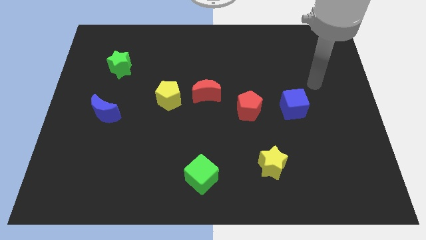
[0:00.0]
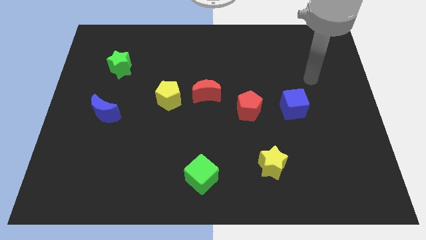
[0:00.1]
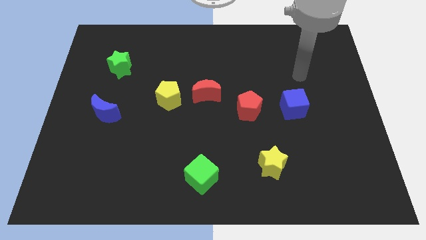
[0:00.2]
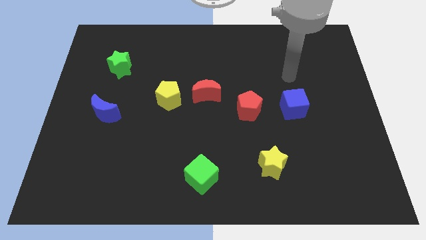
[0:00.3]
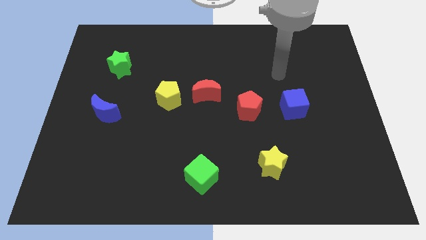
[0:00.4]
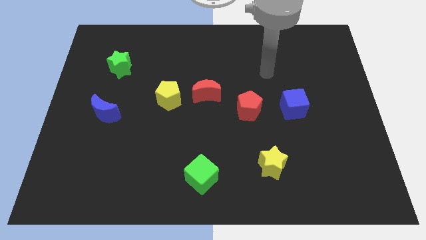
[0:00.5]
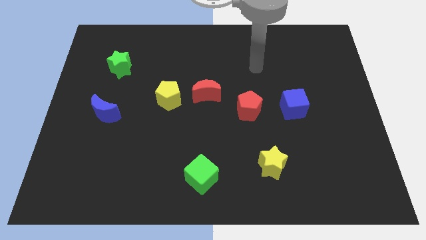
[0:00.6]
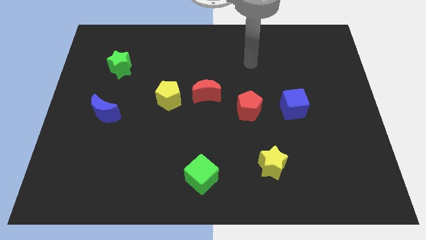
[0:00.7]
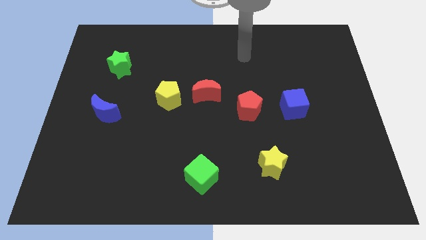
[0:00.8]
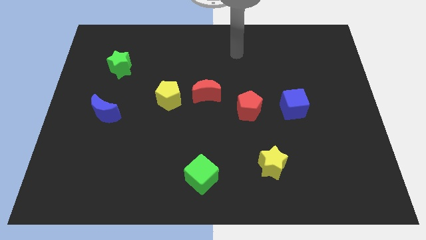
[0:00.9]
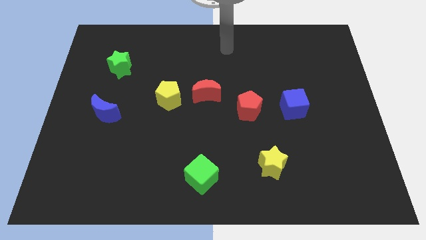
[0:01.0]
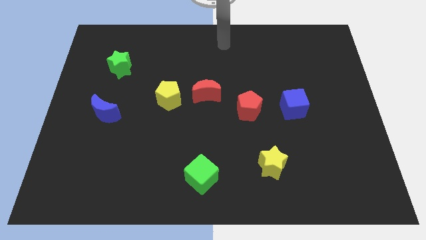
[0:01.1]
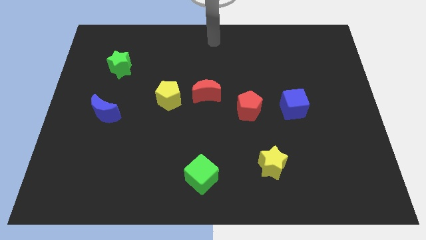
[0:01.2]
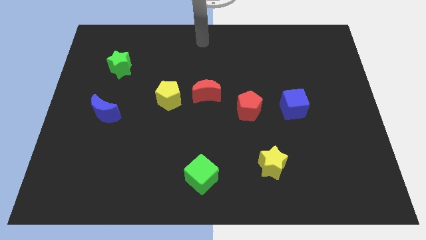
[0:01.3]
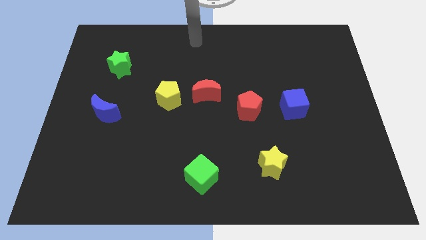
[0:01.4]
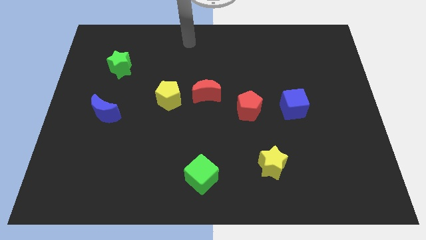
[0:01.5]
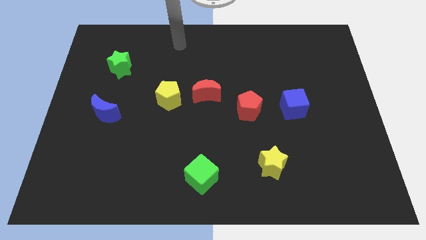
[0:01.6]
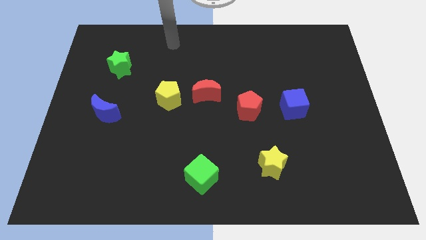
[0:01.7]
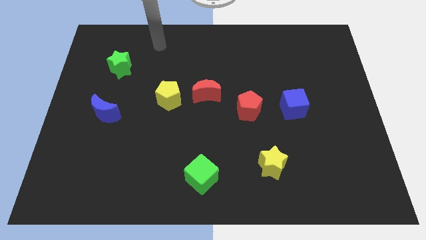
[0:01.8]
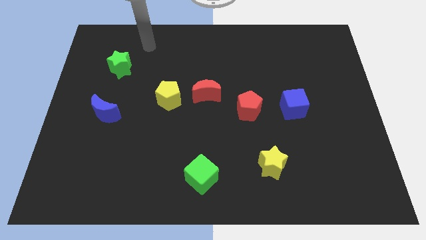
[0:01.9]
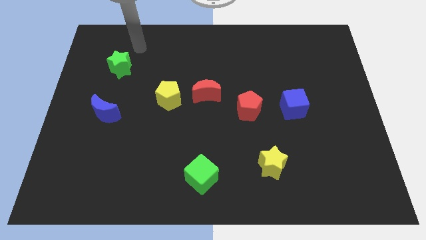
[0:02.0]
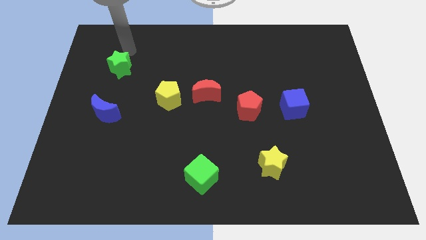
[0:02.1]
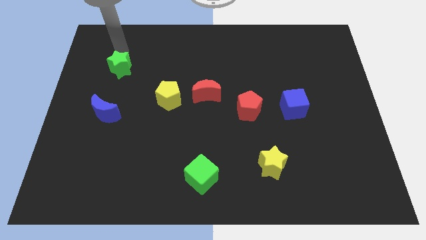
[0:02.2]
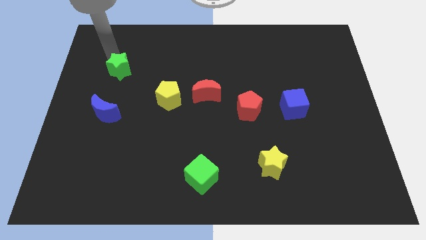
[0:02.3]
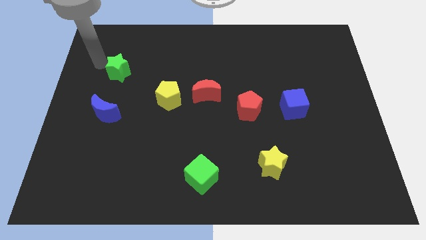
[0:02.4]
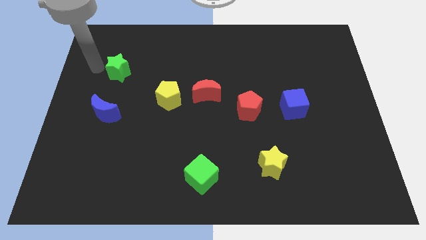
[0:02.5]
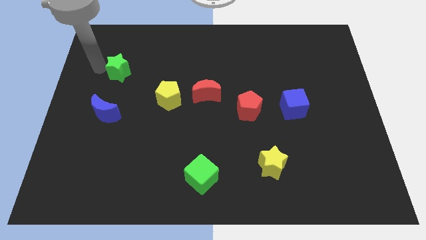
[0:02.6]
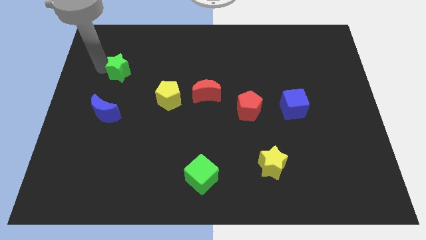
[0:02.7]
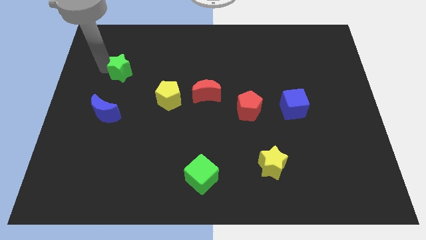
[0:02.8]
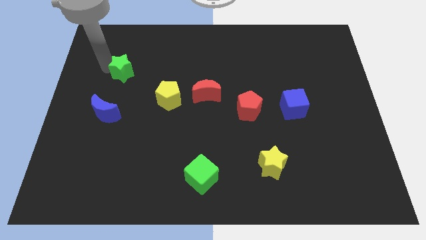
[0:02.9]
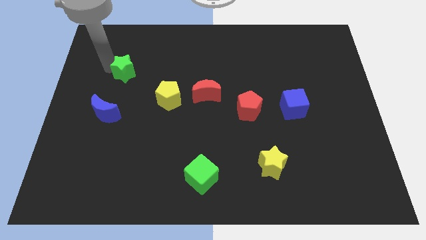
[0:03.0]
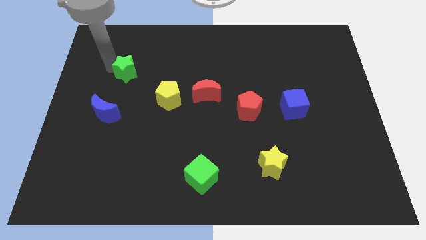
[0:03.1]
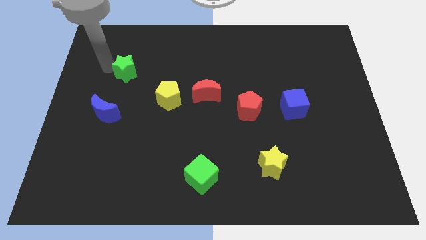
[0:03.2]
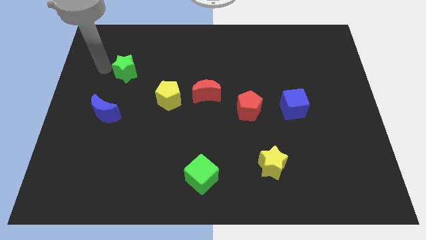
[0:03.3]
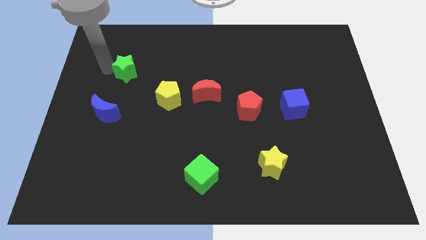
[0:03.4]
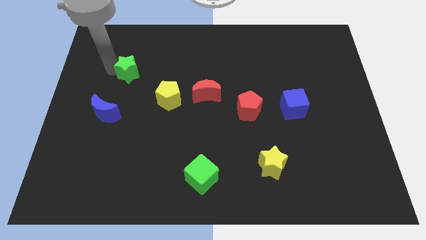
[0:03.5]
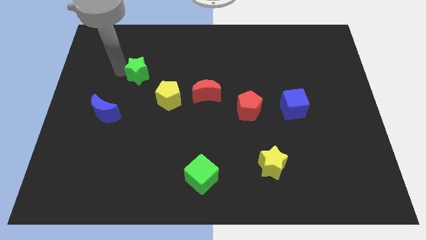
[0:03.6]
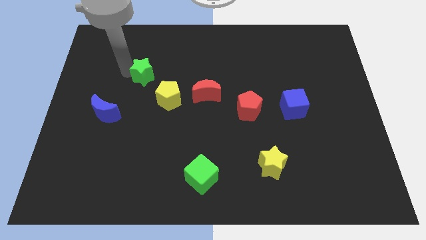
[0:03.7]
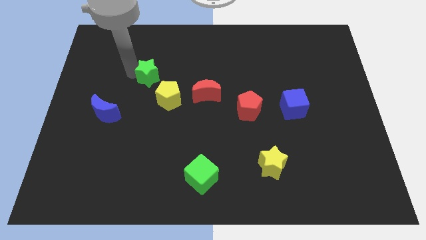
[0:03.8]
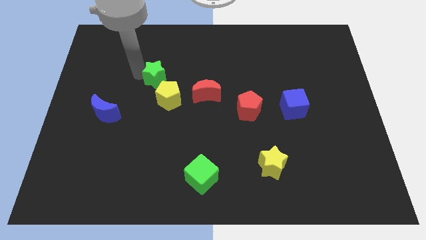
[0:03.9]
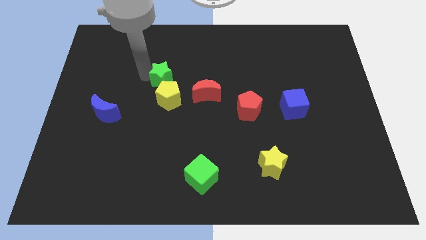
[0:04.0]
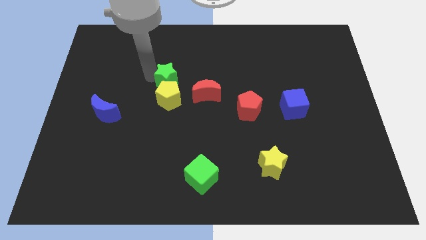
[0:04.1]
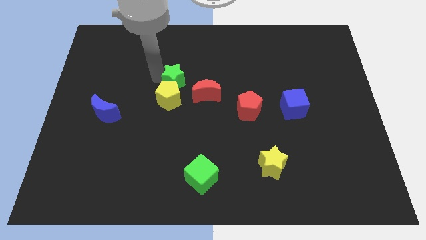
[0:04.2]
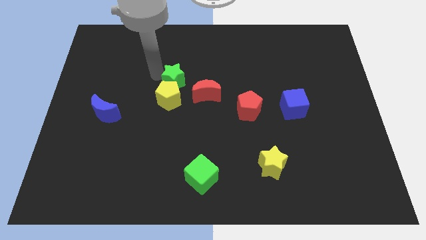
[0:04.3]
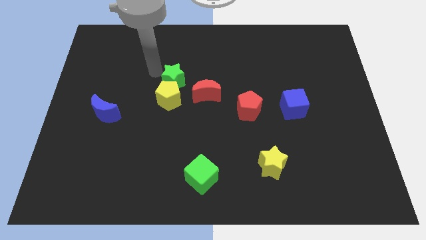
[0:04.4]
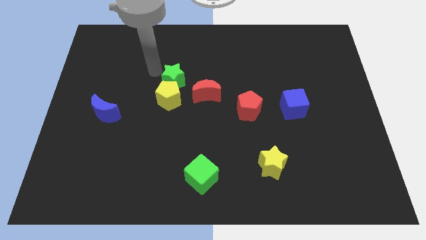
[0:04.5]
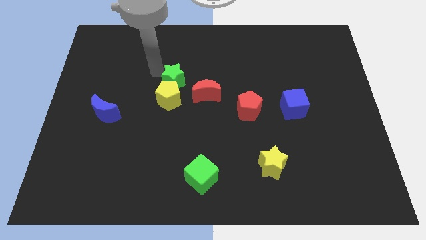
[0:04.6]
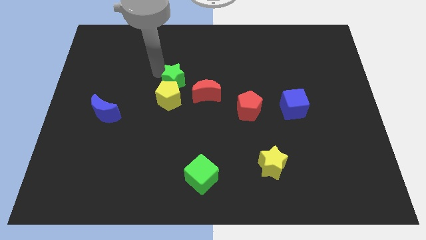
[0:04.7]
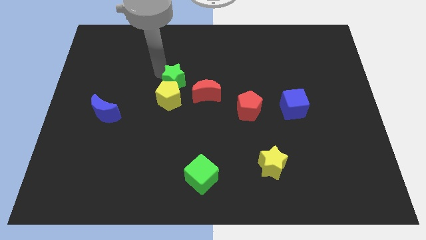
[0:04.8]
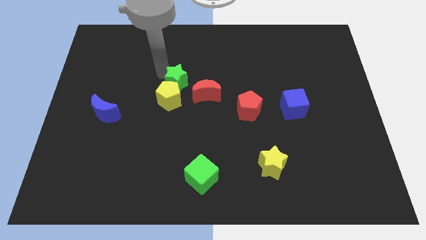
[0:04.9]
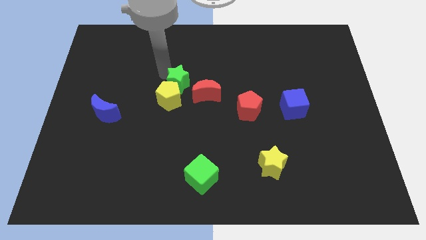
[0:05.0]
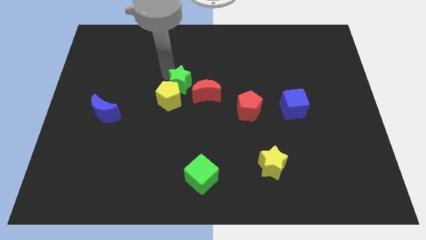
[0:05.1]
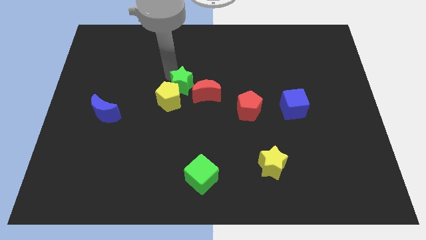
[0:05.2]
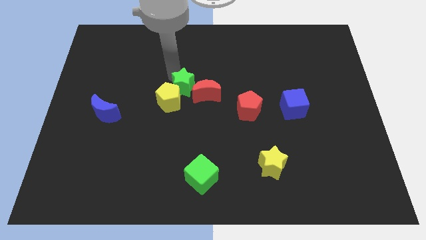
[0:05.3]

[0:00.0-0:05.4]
put the green star to the red moon

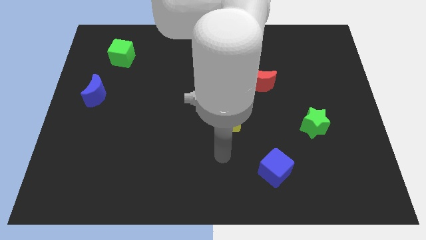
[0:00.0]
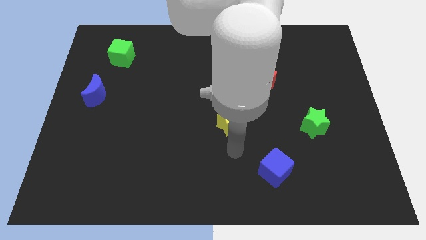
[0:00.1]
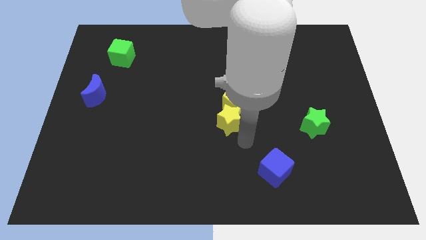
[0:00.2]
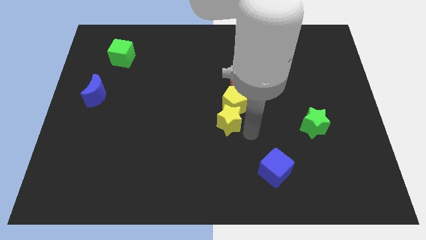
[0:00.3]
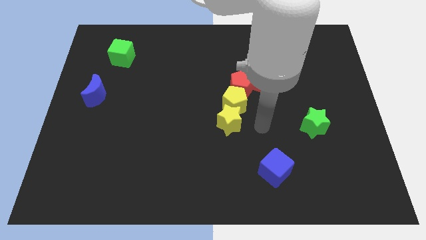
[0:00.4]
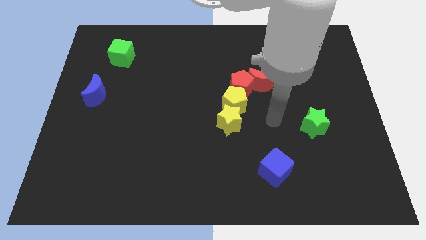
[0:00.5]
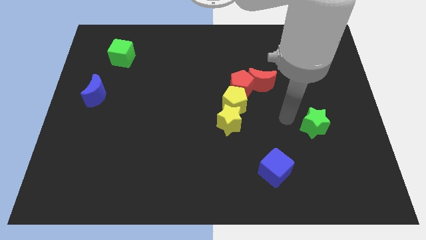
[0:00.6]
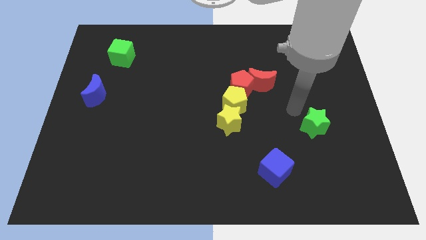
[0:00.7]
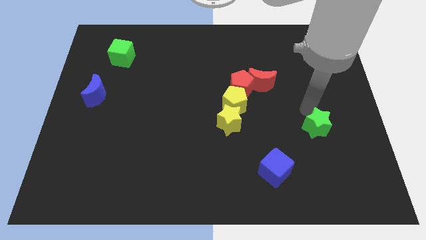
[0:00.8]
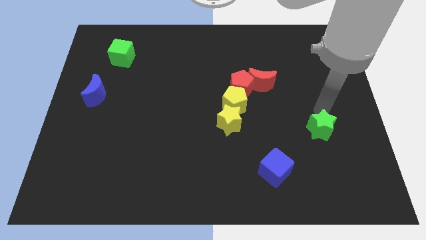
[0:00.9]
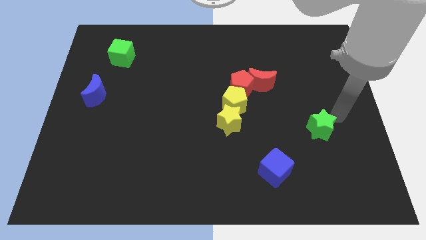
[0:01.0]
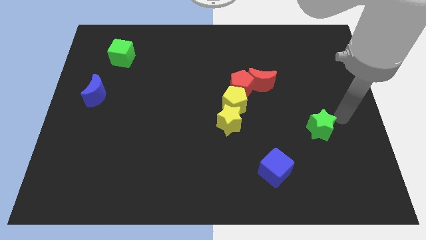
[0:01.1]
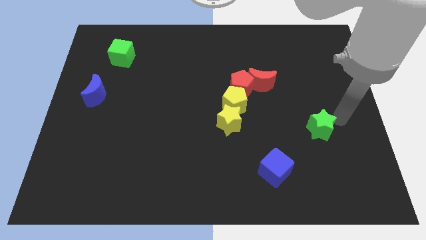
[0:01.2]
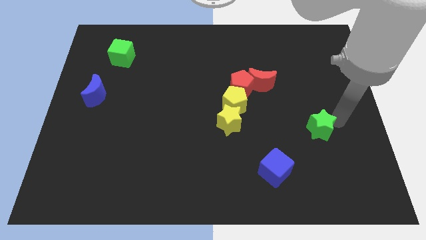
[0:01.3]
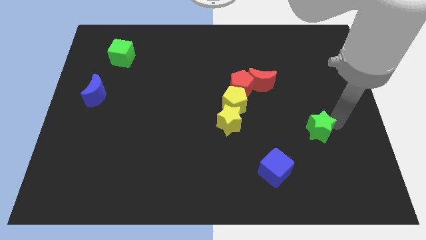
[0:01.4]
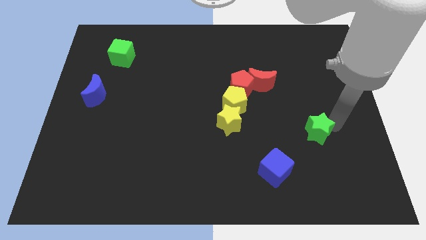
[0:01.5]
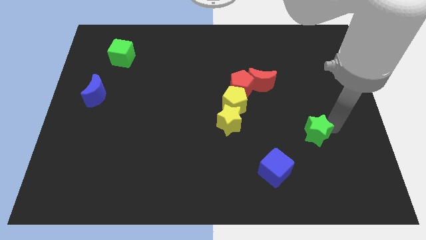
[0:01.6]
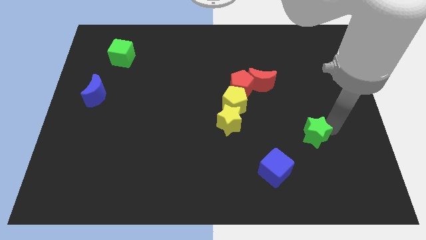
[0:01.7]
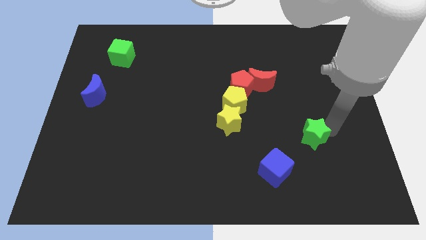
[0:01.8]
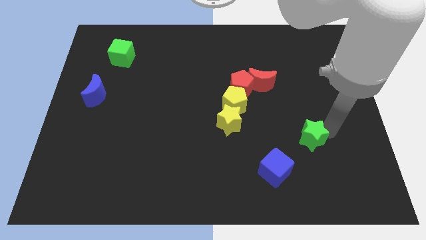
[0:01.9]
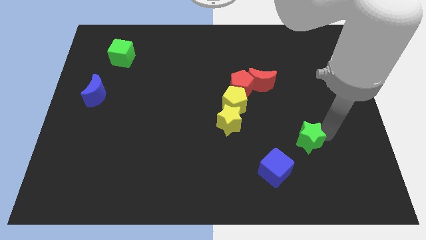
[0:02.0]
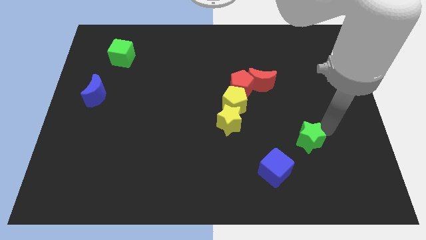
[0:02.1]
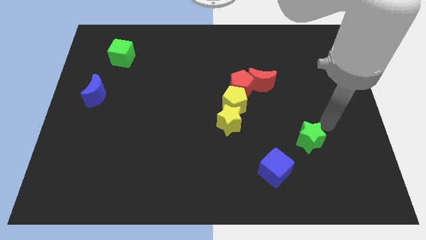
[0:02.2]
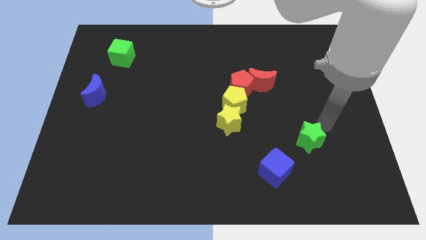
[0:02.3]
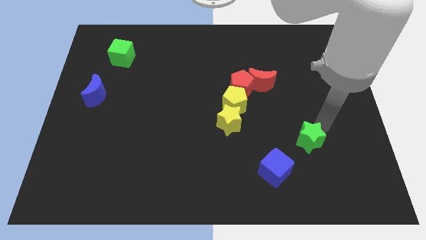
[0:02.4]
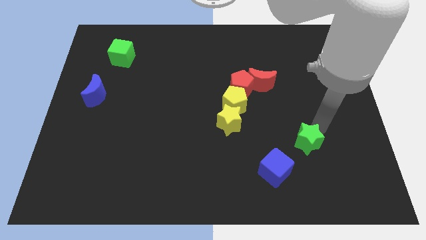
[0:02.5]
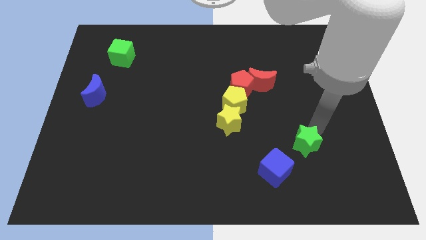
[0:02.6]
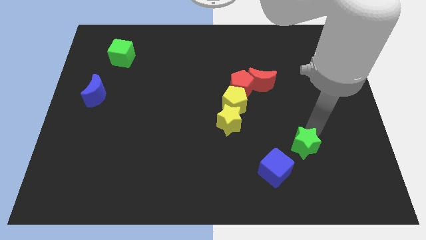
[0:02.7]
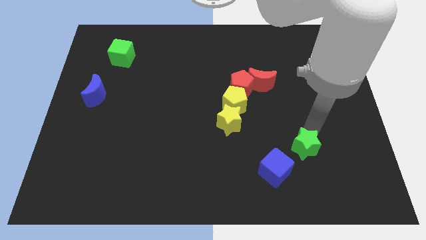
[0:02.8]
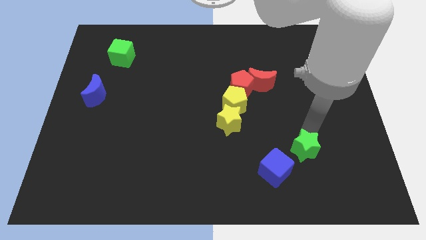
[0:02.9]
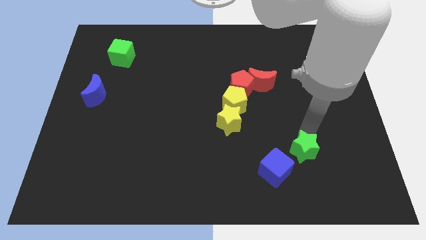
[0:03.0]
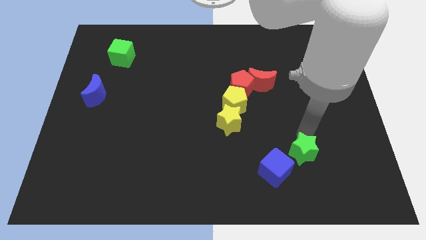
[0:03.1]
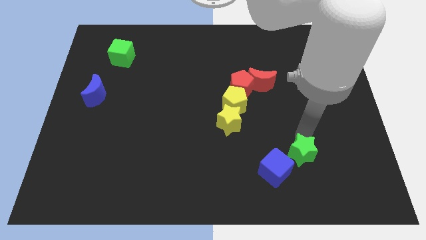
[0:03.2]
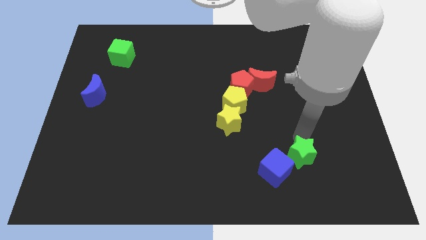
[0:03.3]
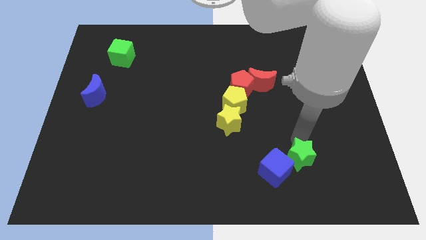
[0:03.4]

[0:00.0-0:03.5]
push the green star to the blue cube
